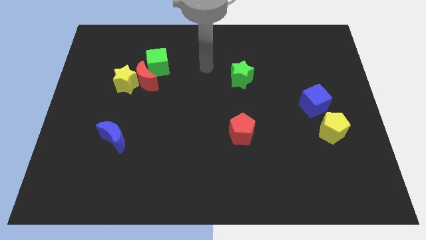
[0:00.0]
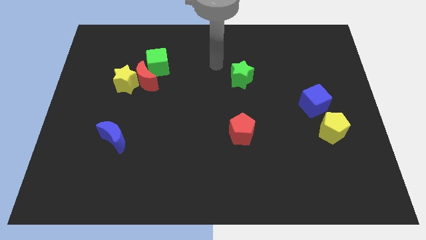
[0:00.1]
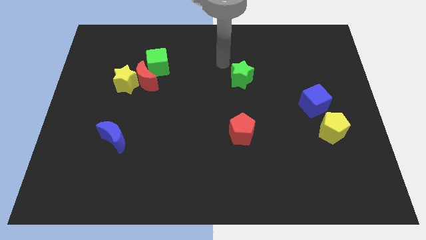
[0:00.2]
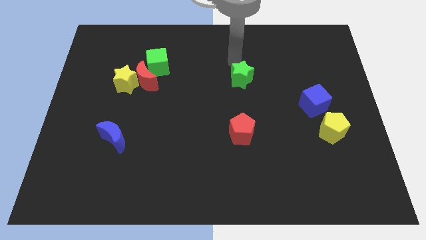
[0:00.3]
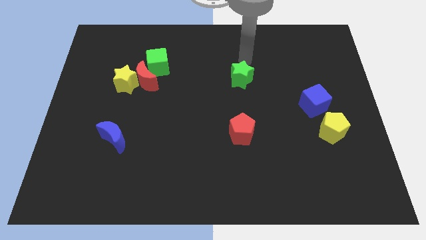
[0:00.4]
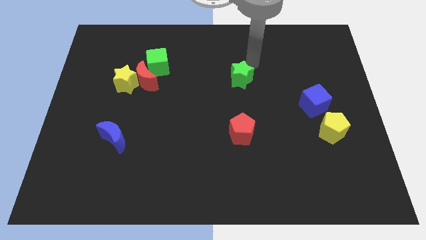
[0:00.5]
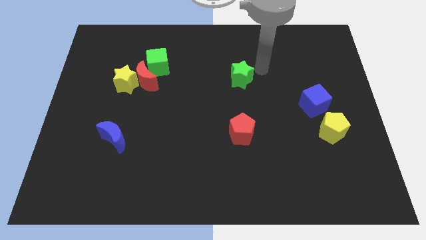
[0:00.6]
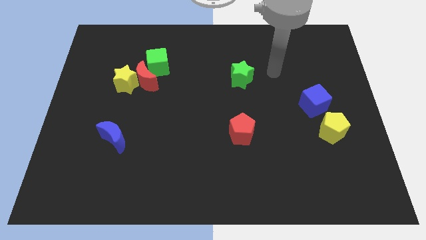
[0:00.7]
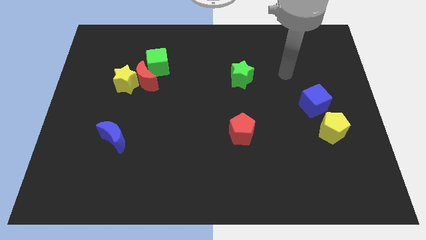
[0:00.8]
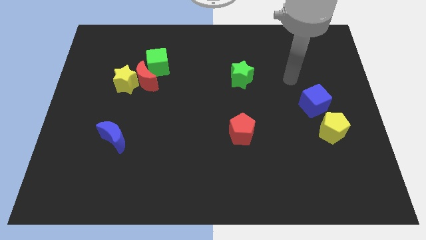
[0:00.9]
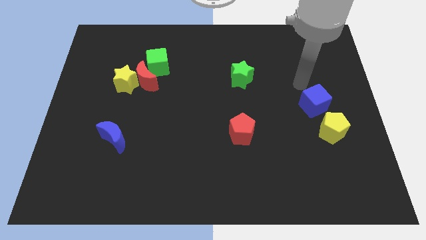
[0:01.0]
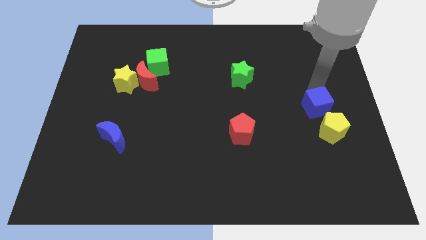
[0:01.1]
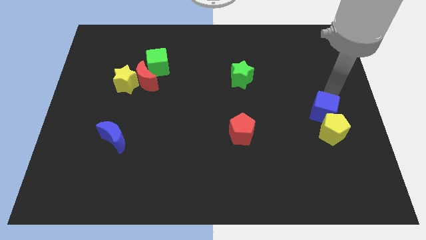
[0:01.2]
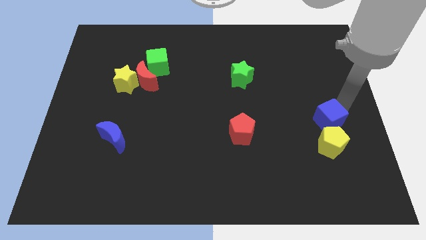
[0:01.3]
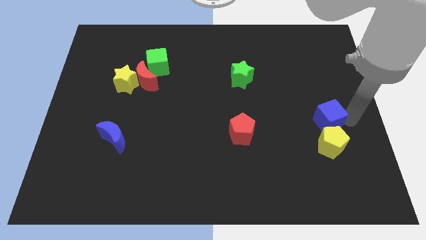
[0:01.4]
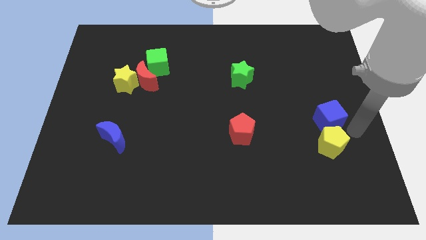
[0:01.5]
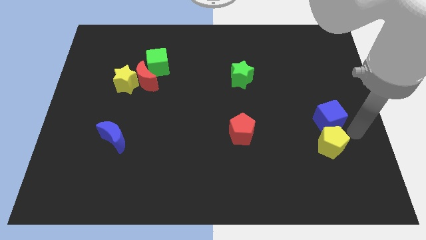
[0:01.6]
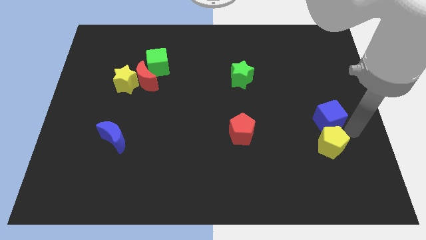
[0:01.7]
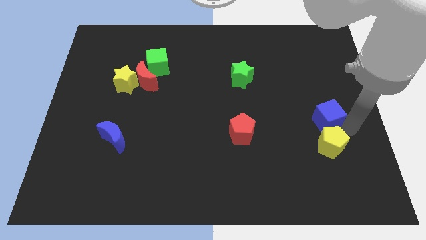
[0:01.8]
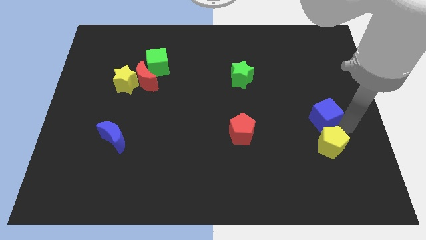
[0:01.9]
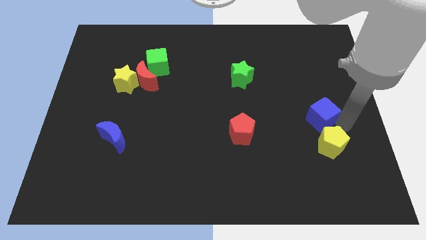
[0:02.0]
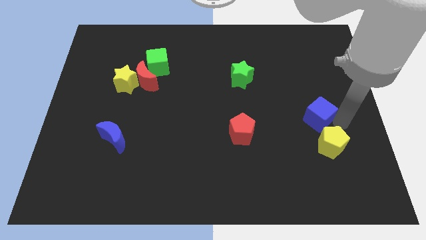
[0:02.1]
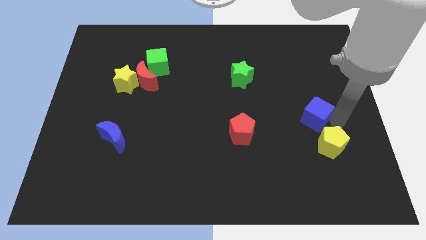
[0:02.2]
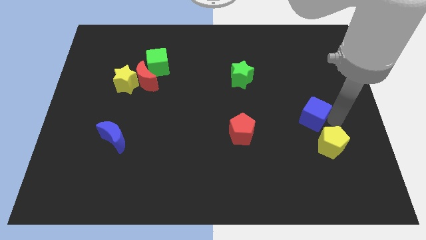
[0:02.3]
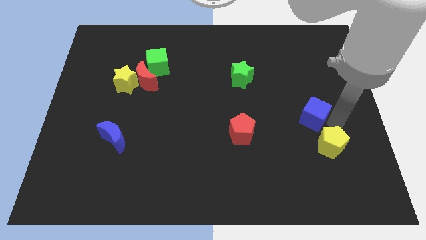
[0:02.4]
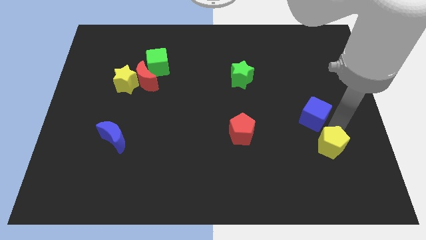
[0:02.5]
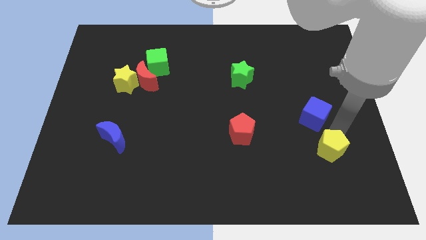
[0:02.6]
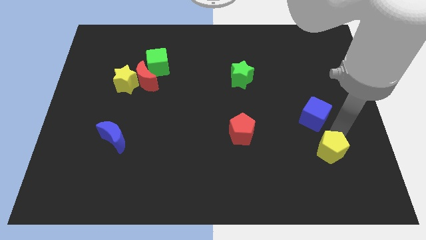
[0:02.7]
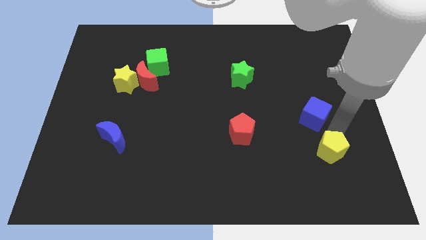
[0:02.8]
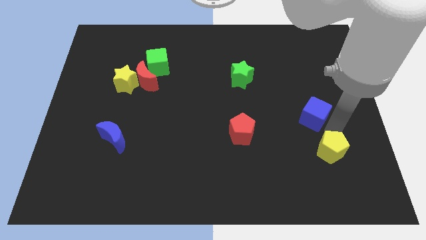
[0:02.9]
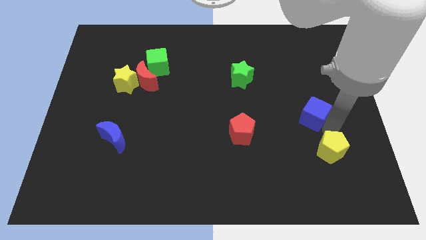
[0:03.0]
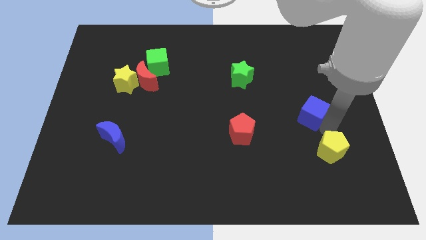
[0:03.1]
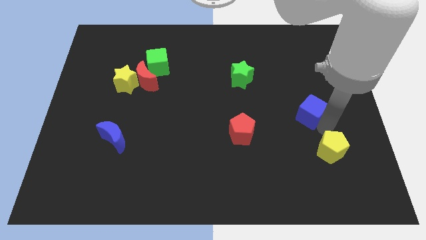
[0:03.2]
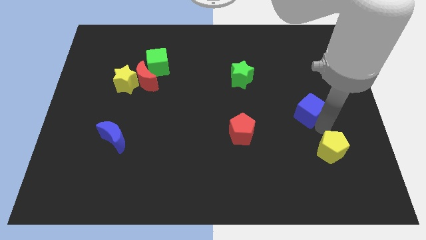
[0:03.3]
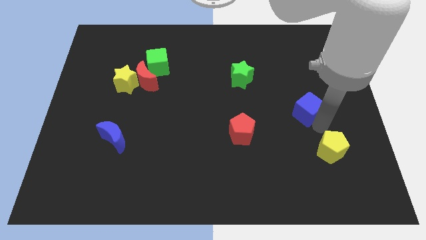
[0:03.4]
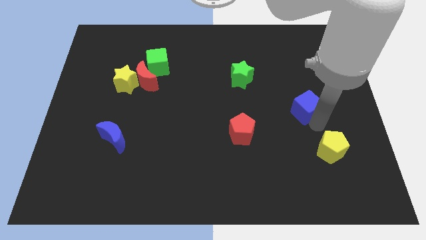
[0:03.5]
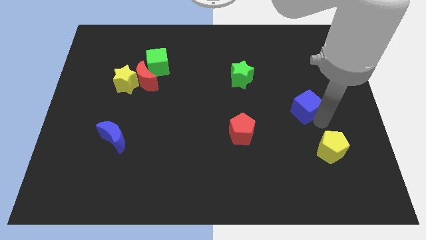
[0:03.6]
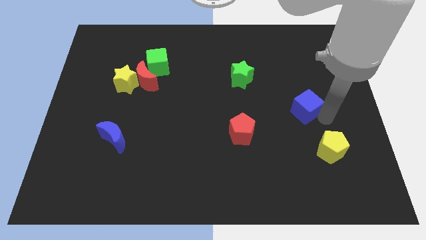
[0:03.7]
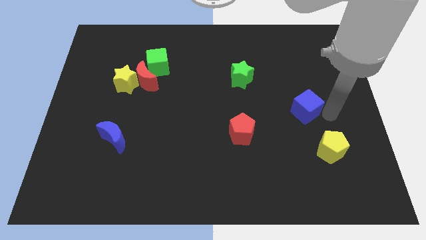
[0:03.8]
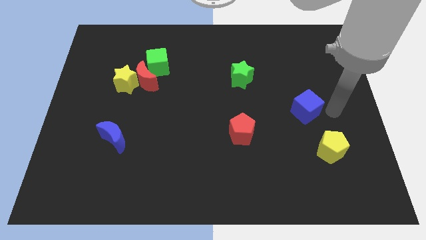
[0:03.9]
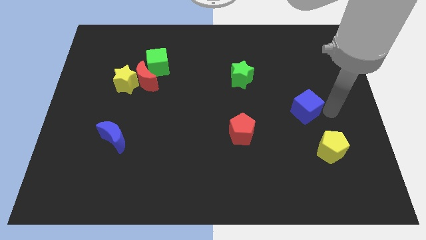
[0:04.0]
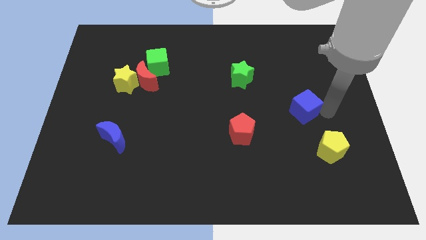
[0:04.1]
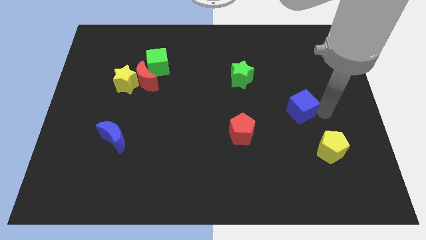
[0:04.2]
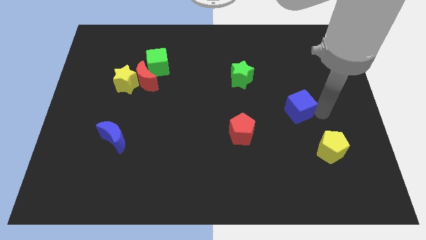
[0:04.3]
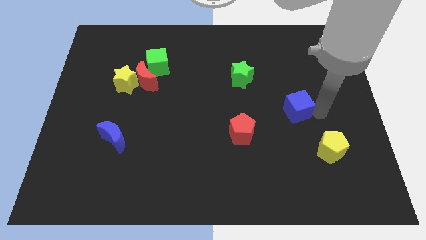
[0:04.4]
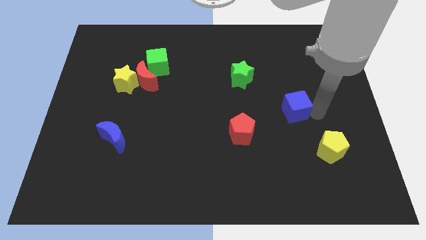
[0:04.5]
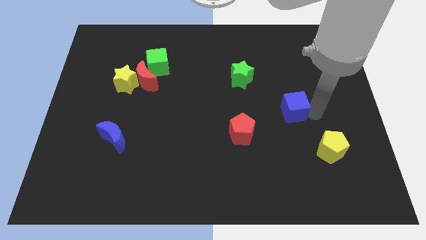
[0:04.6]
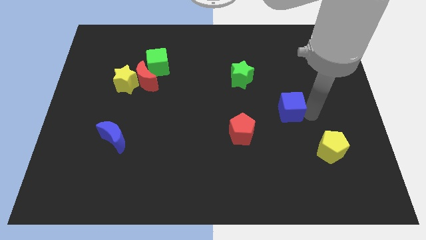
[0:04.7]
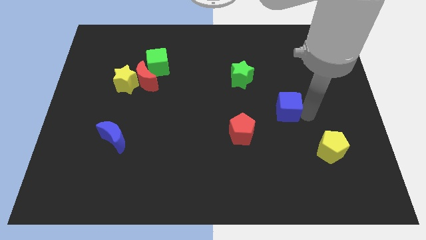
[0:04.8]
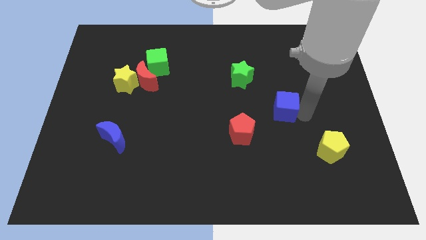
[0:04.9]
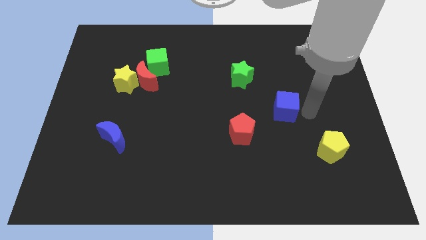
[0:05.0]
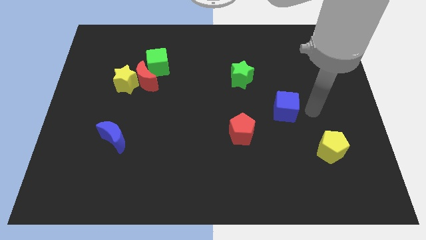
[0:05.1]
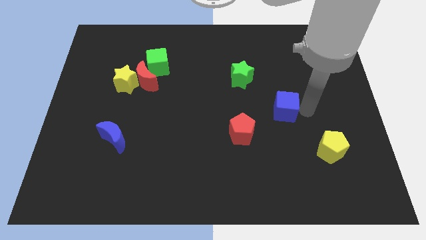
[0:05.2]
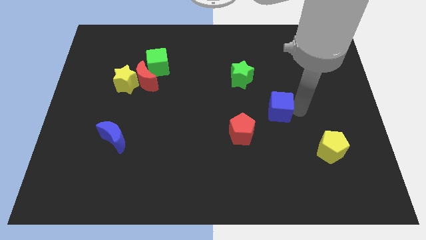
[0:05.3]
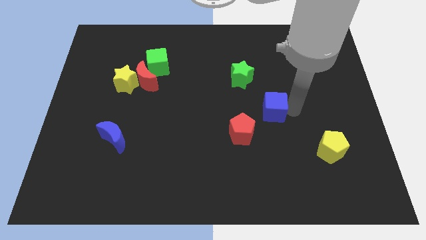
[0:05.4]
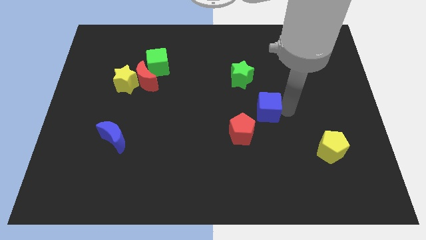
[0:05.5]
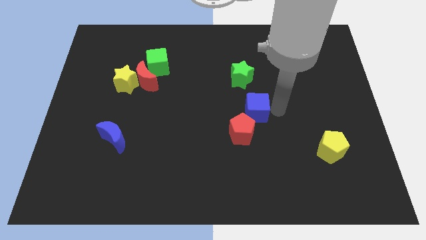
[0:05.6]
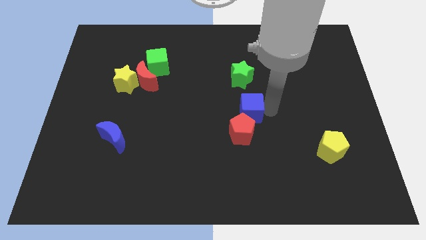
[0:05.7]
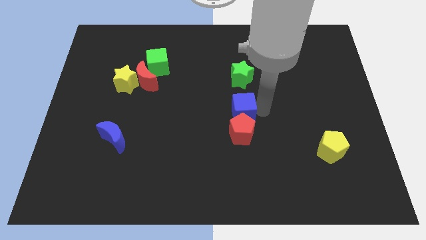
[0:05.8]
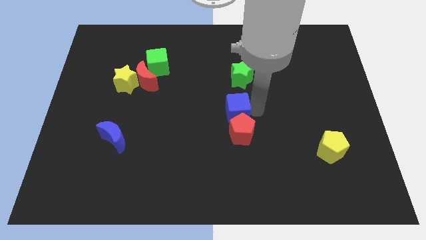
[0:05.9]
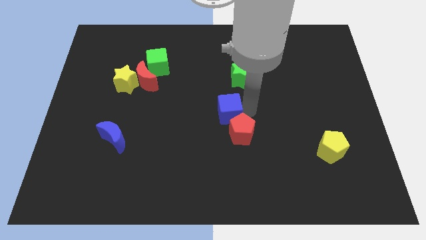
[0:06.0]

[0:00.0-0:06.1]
push the blue cube to the left

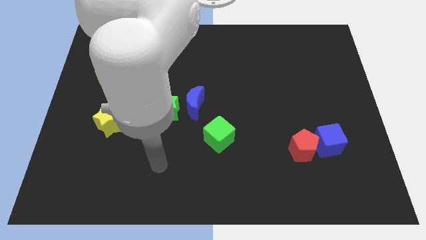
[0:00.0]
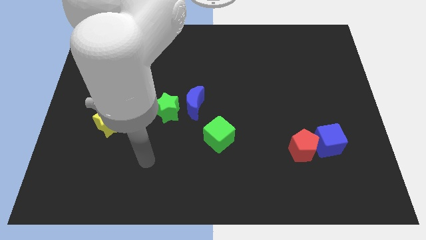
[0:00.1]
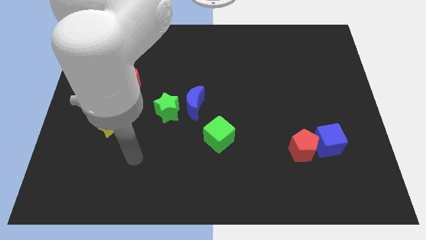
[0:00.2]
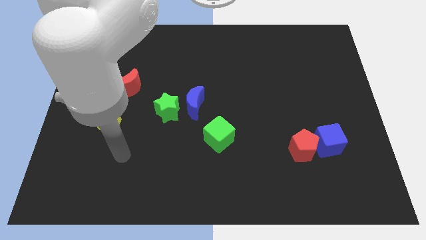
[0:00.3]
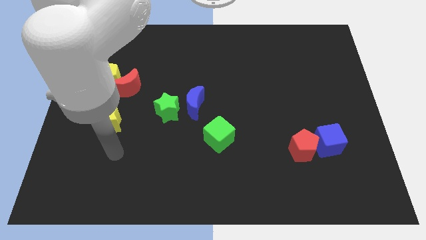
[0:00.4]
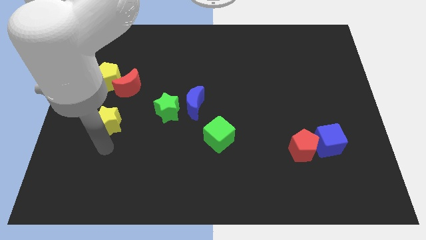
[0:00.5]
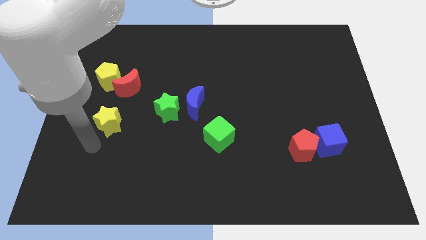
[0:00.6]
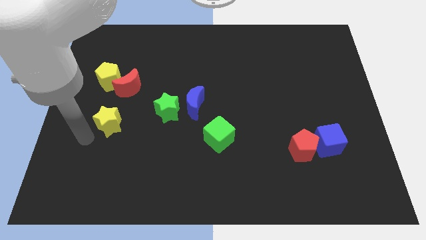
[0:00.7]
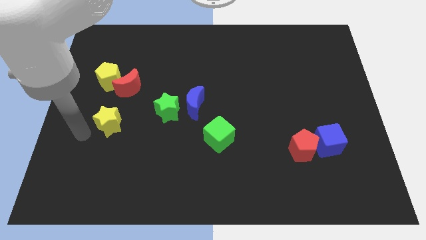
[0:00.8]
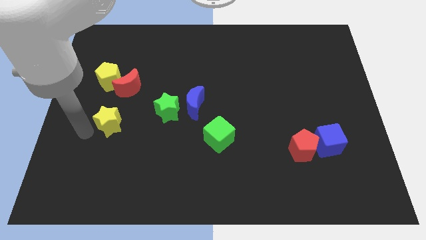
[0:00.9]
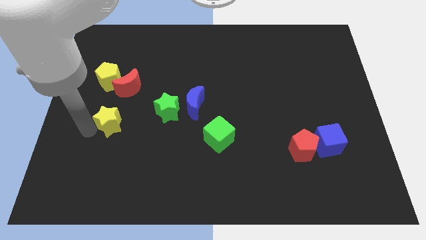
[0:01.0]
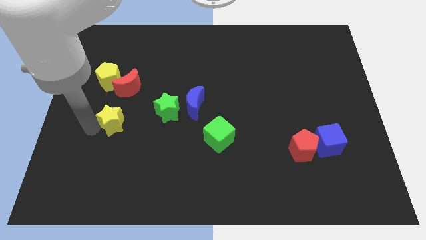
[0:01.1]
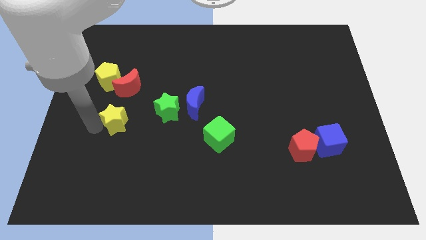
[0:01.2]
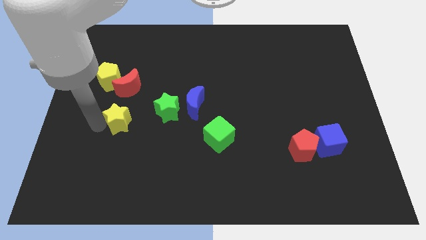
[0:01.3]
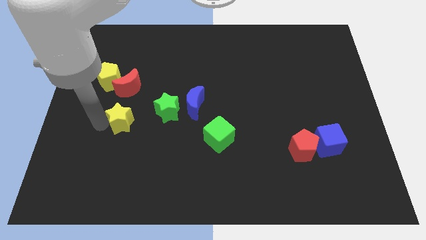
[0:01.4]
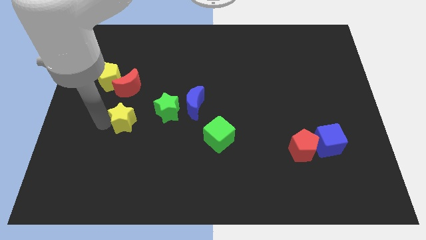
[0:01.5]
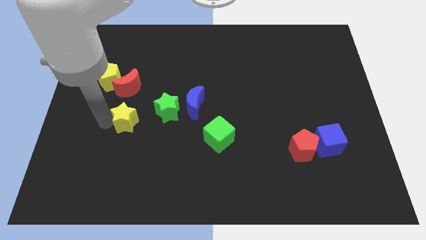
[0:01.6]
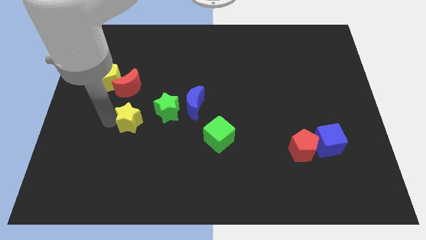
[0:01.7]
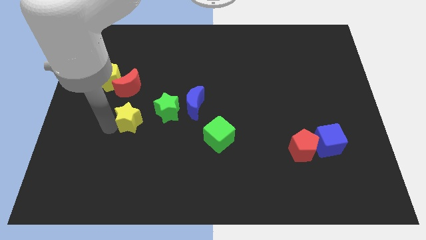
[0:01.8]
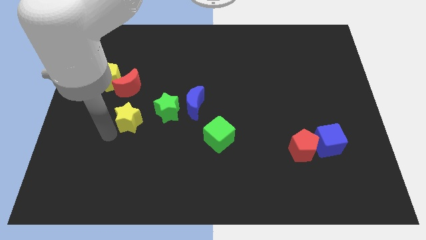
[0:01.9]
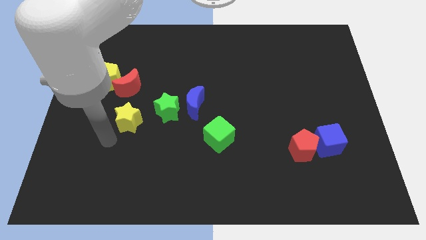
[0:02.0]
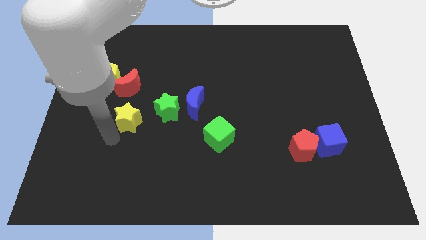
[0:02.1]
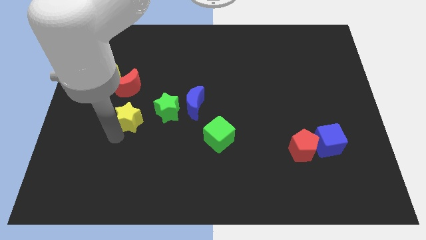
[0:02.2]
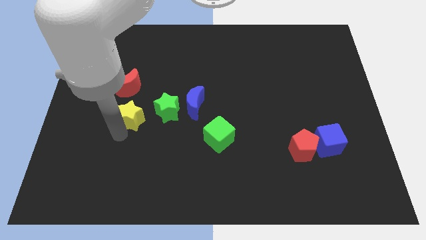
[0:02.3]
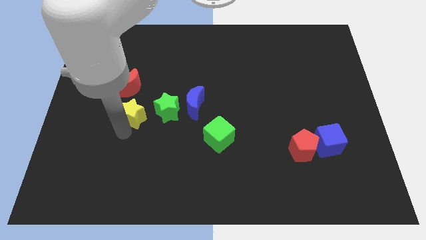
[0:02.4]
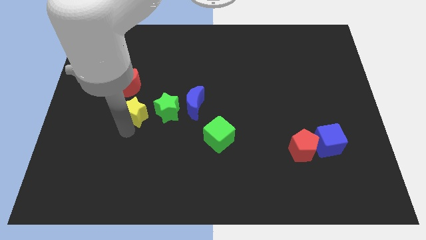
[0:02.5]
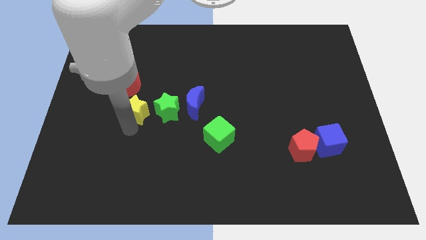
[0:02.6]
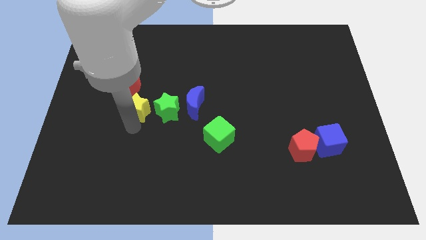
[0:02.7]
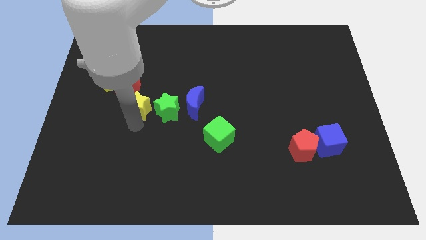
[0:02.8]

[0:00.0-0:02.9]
slide the yellow star upwards and right diagonally a little
